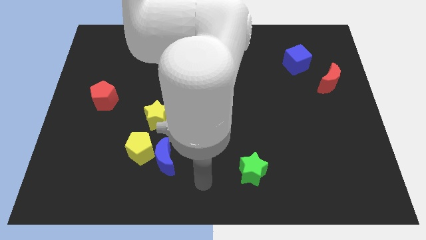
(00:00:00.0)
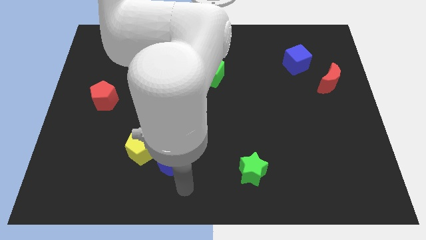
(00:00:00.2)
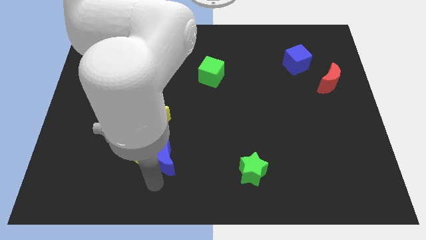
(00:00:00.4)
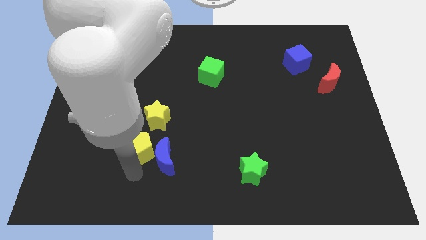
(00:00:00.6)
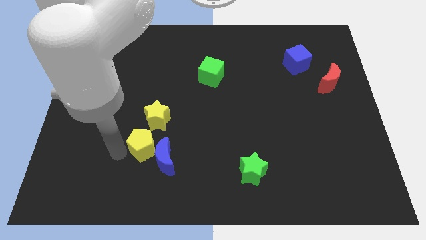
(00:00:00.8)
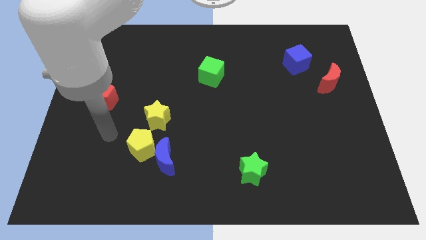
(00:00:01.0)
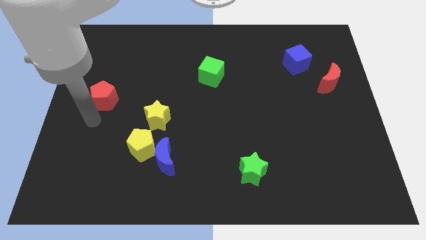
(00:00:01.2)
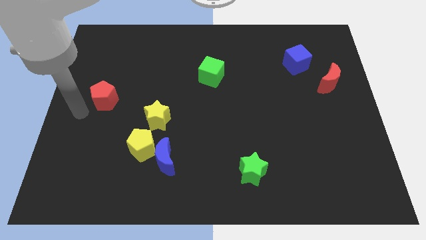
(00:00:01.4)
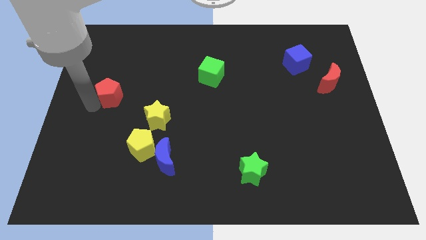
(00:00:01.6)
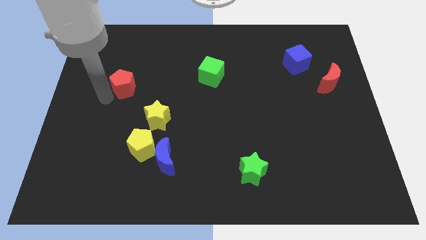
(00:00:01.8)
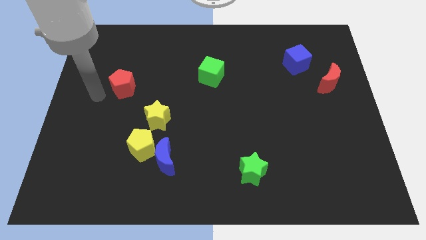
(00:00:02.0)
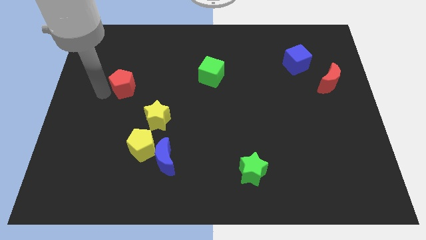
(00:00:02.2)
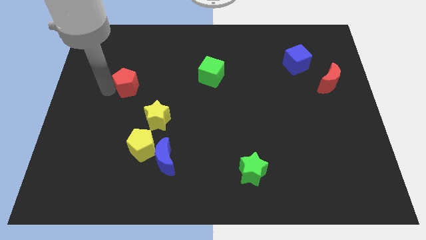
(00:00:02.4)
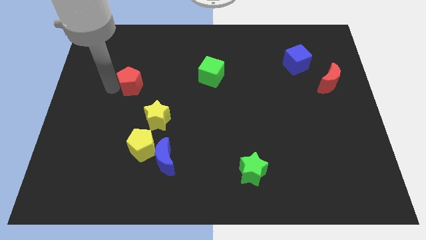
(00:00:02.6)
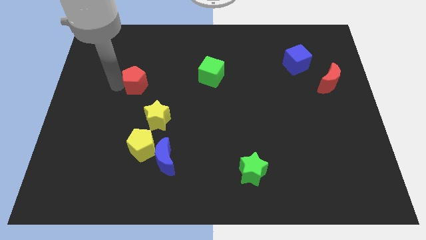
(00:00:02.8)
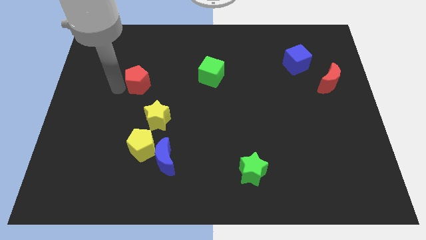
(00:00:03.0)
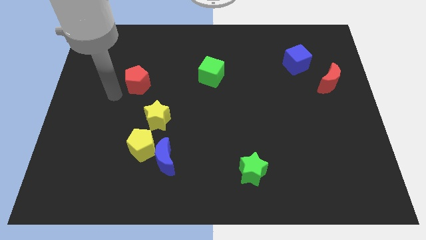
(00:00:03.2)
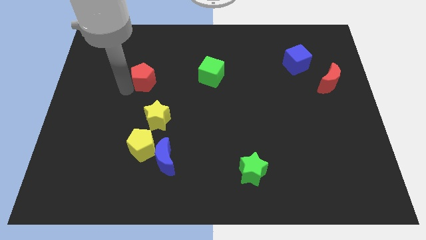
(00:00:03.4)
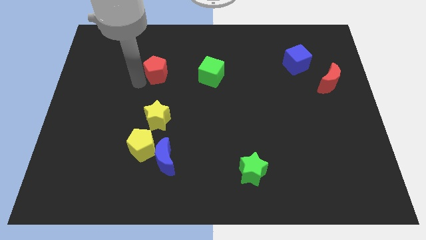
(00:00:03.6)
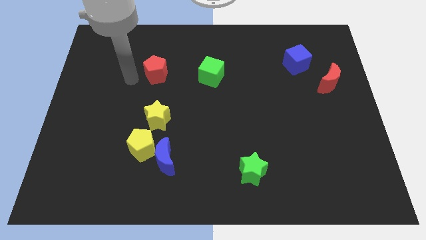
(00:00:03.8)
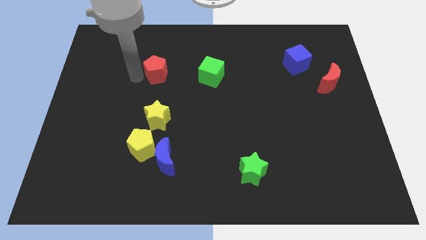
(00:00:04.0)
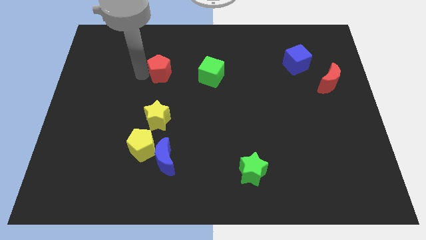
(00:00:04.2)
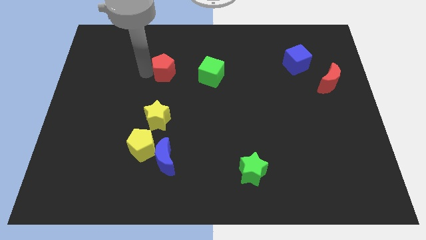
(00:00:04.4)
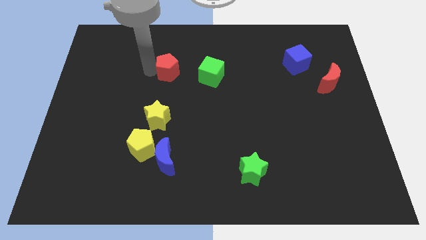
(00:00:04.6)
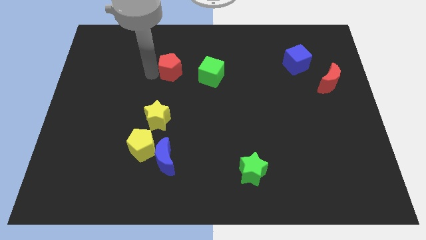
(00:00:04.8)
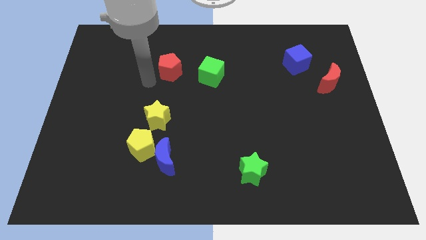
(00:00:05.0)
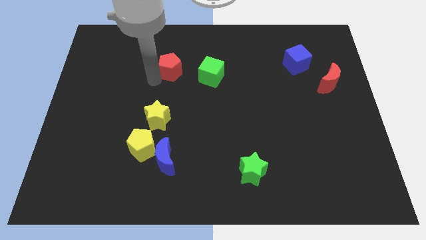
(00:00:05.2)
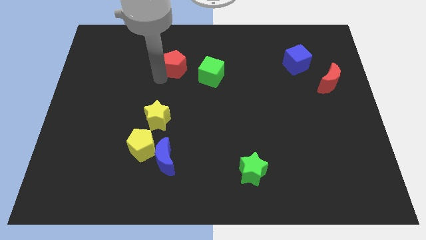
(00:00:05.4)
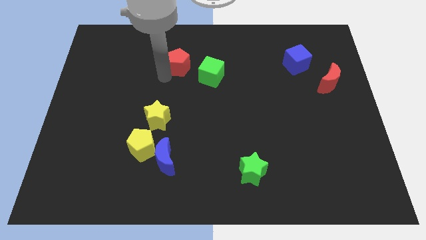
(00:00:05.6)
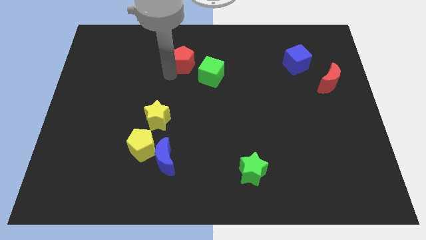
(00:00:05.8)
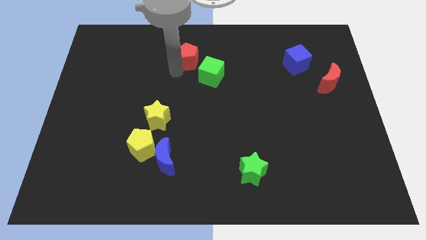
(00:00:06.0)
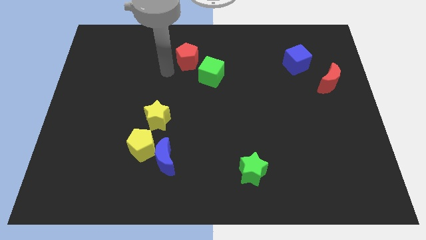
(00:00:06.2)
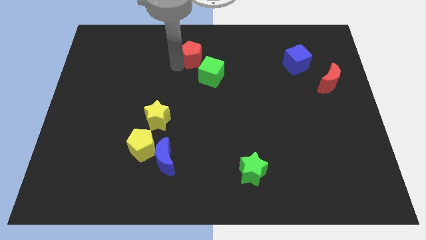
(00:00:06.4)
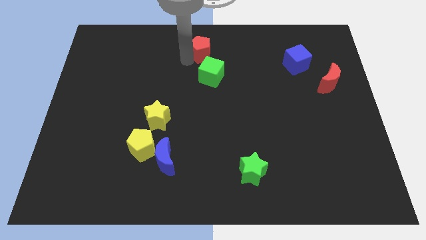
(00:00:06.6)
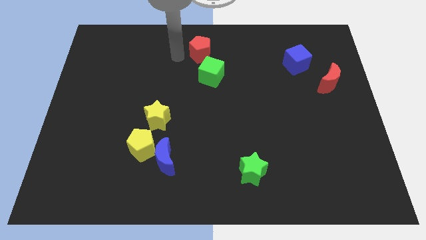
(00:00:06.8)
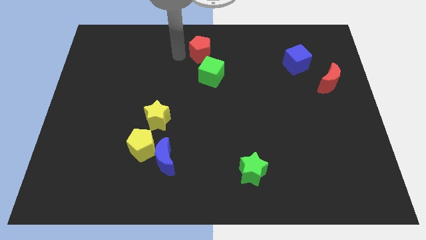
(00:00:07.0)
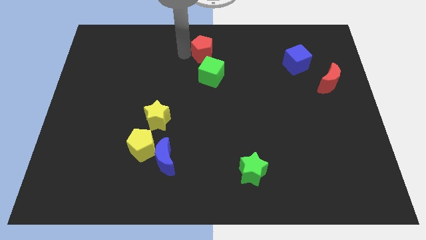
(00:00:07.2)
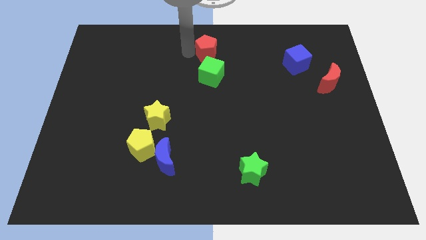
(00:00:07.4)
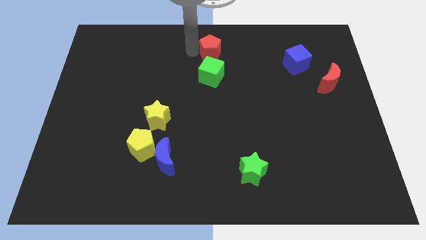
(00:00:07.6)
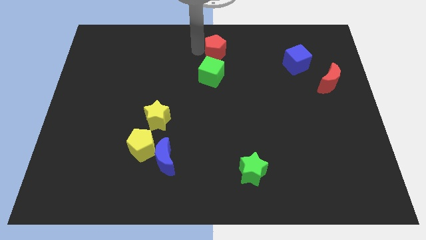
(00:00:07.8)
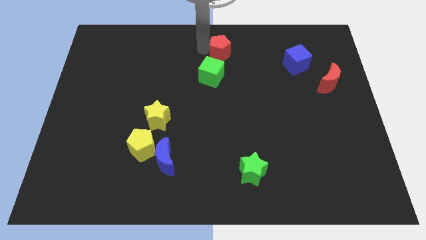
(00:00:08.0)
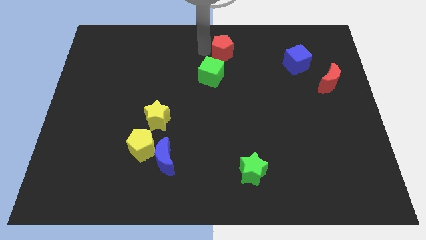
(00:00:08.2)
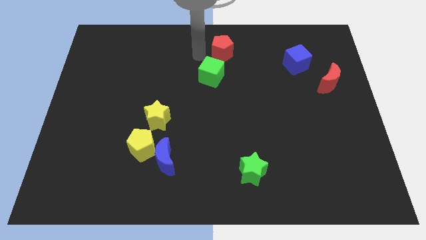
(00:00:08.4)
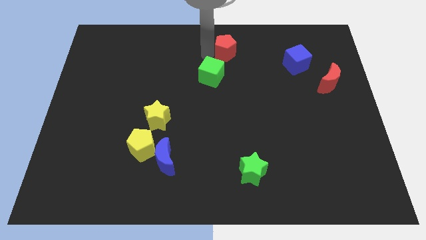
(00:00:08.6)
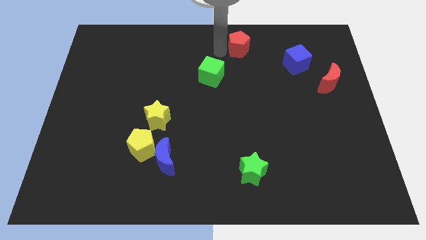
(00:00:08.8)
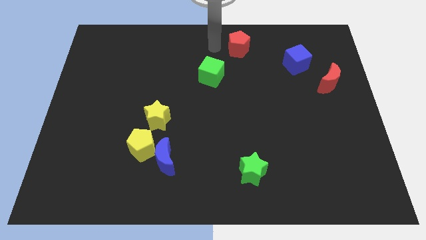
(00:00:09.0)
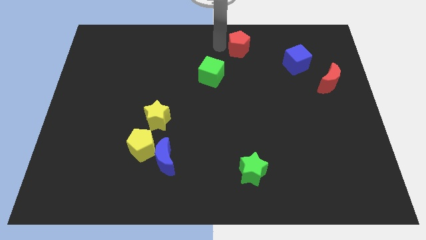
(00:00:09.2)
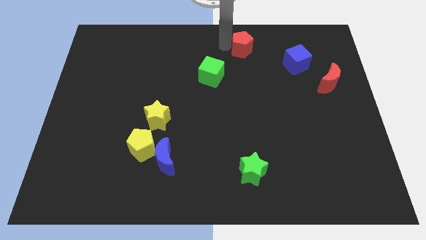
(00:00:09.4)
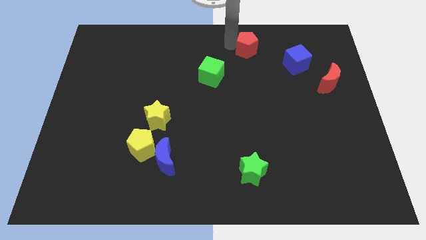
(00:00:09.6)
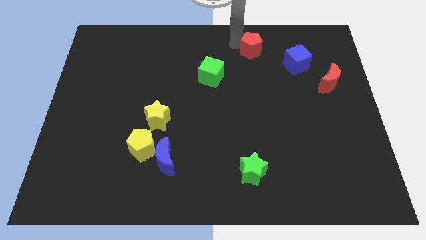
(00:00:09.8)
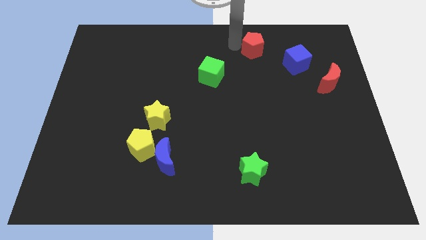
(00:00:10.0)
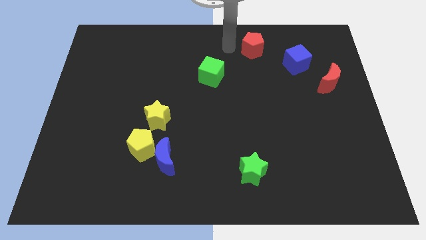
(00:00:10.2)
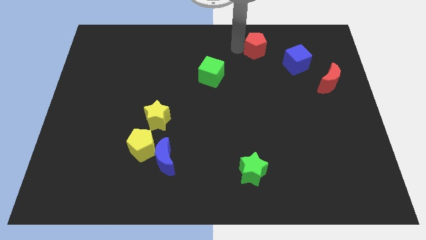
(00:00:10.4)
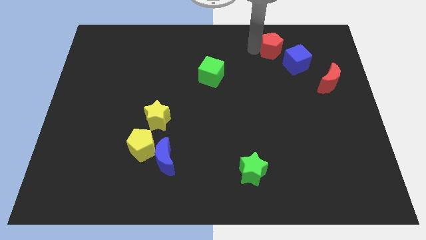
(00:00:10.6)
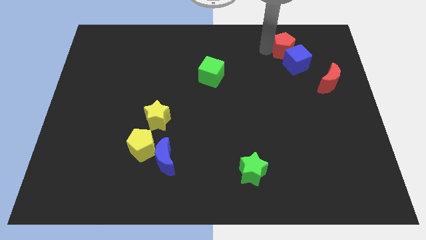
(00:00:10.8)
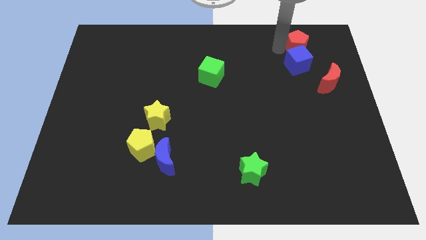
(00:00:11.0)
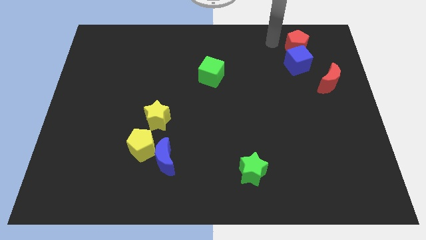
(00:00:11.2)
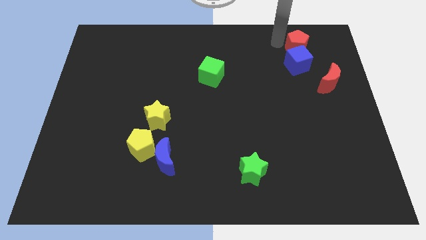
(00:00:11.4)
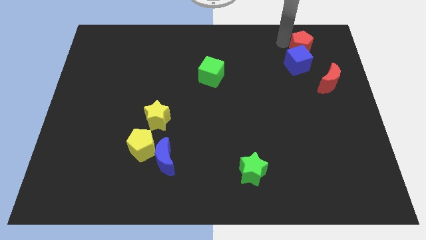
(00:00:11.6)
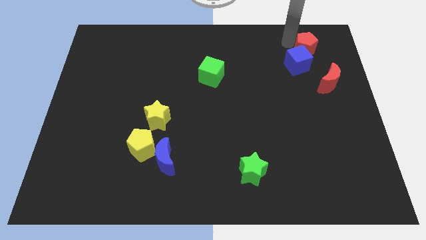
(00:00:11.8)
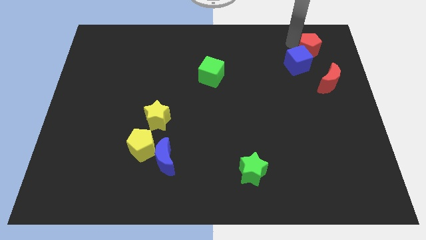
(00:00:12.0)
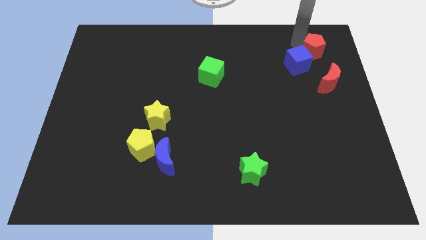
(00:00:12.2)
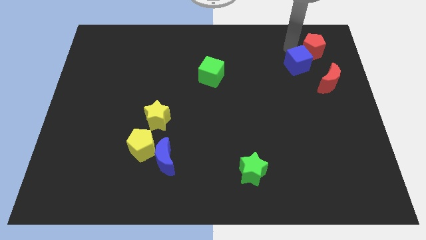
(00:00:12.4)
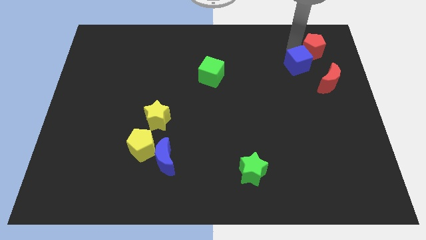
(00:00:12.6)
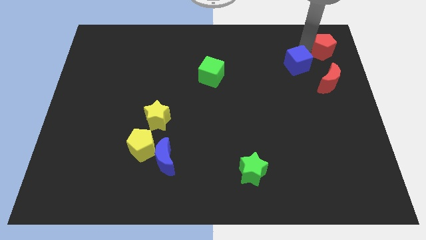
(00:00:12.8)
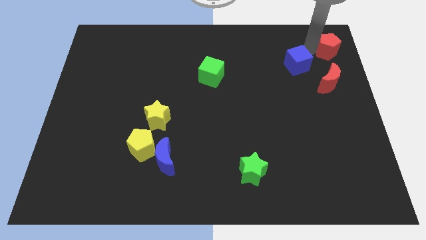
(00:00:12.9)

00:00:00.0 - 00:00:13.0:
move the red pentagon to the top right of the board
